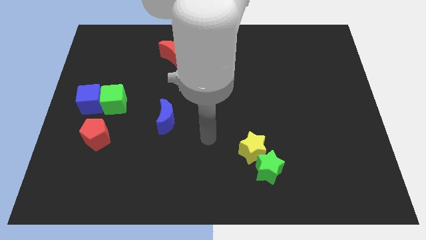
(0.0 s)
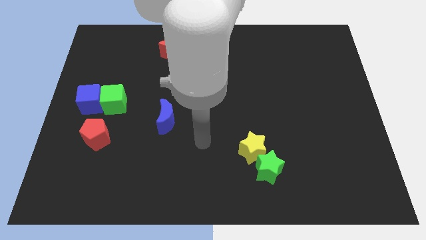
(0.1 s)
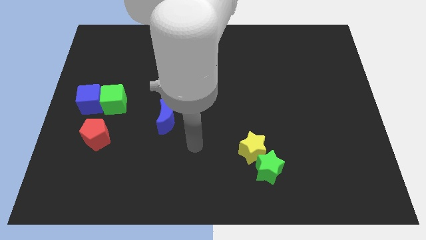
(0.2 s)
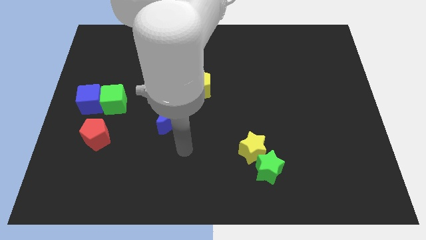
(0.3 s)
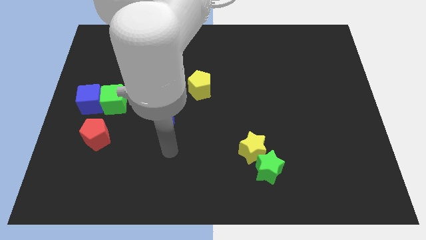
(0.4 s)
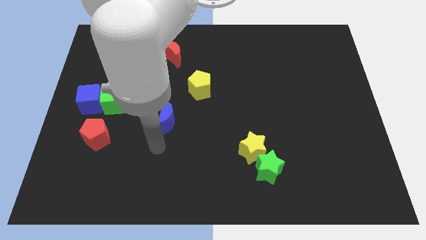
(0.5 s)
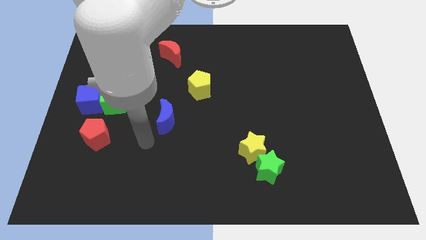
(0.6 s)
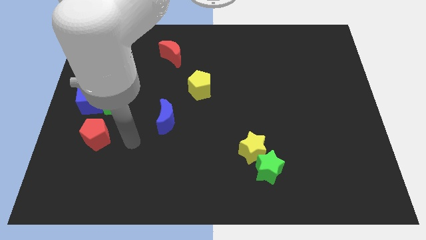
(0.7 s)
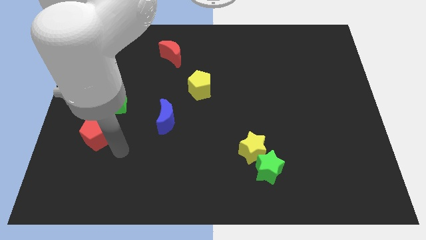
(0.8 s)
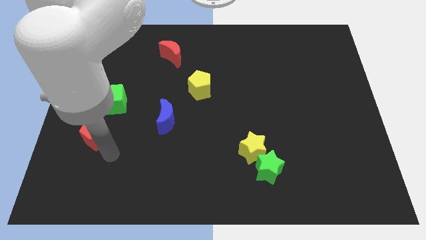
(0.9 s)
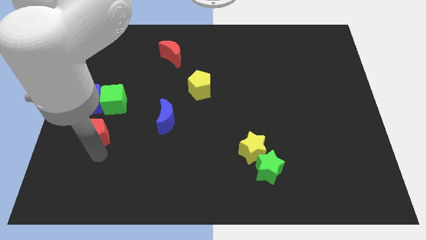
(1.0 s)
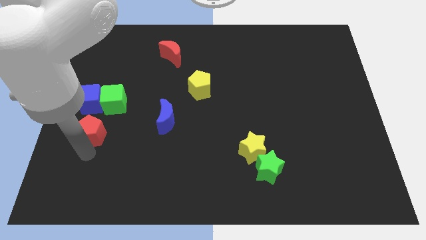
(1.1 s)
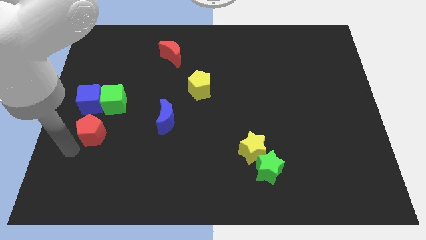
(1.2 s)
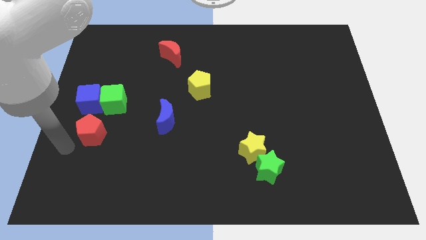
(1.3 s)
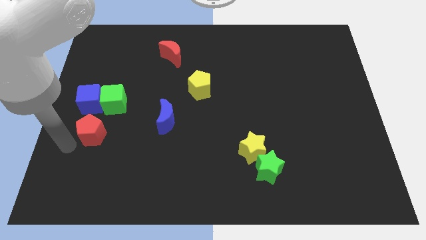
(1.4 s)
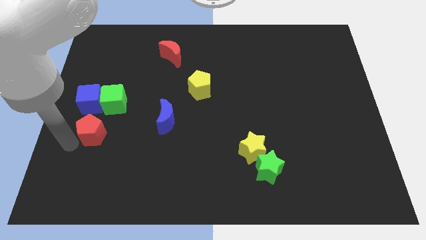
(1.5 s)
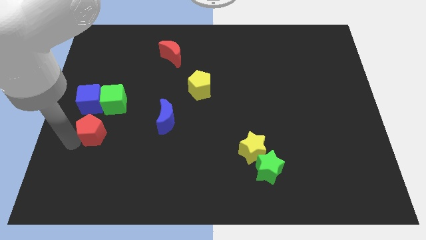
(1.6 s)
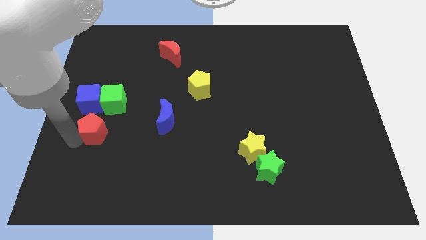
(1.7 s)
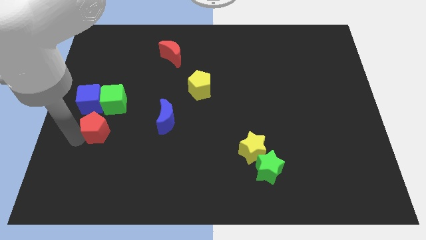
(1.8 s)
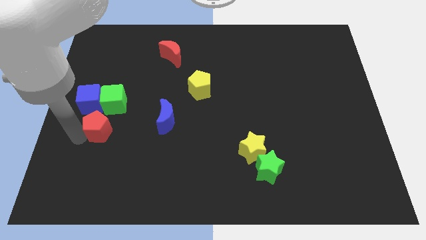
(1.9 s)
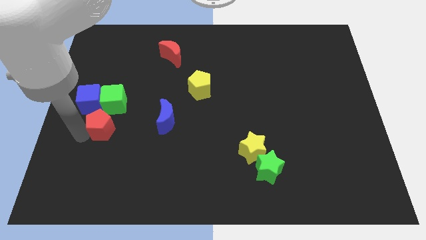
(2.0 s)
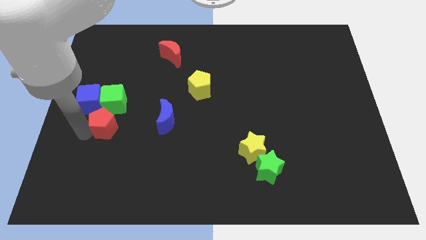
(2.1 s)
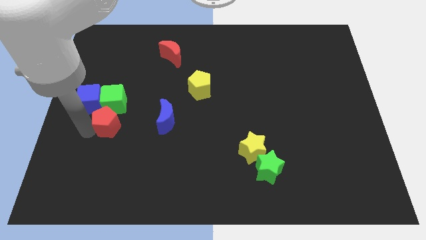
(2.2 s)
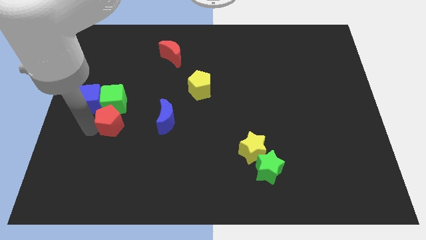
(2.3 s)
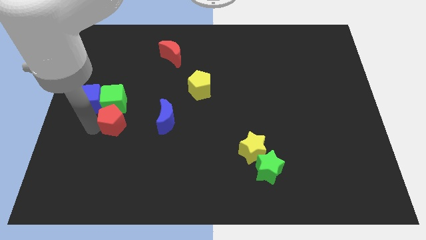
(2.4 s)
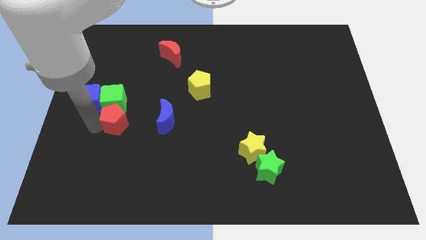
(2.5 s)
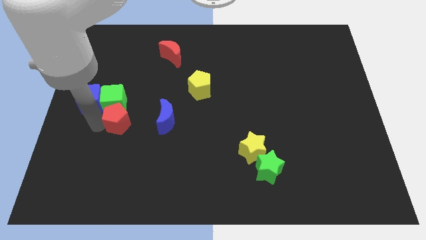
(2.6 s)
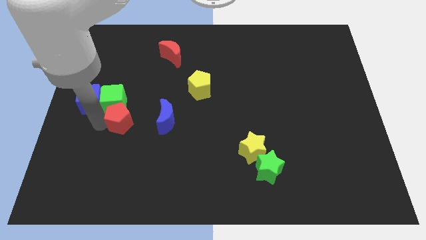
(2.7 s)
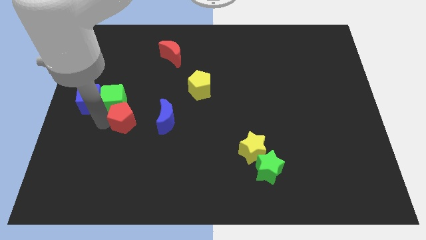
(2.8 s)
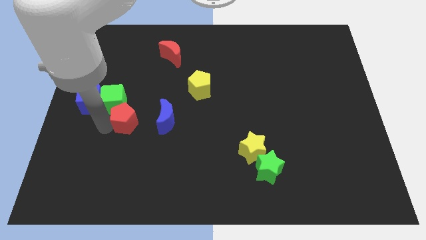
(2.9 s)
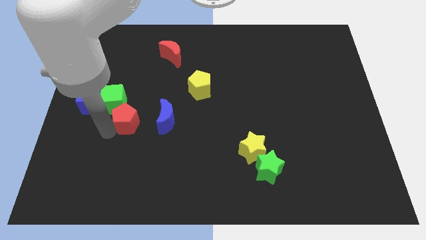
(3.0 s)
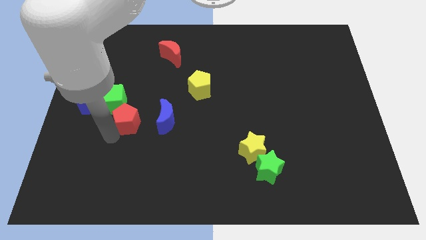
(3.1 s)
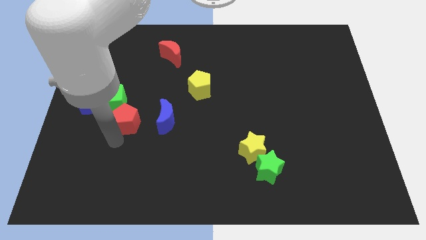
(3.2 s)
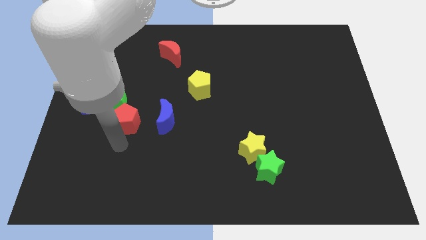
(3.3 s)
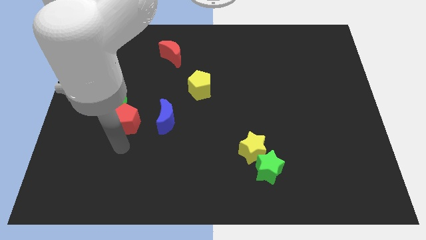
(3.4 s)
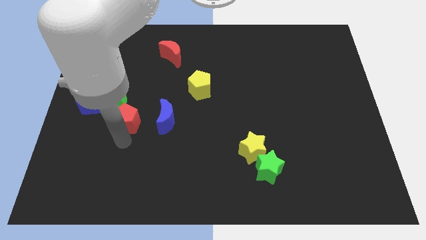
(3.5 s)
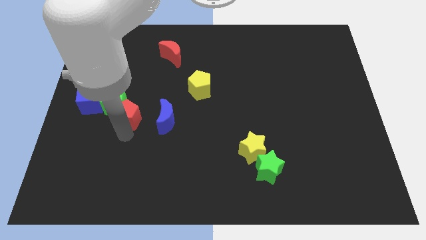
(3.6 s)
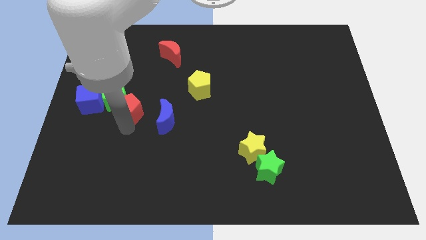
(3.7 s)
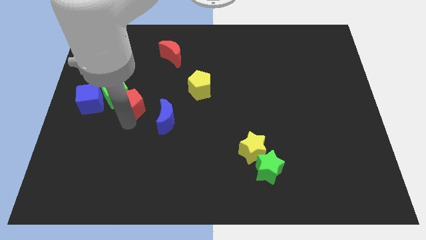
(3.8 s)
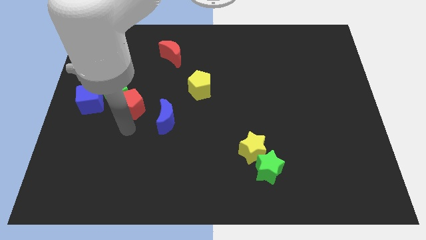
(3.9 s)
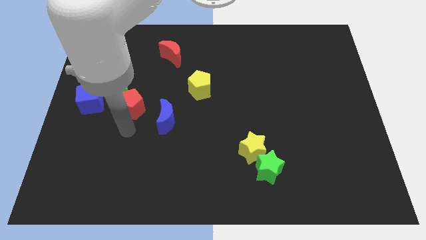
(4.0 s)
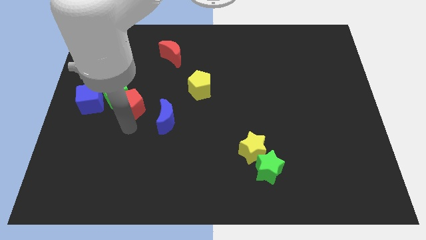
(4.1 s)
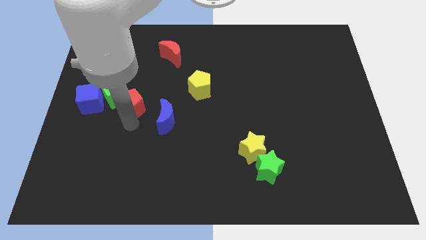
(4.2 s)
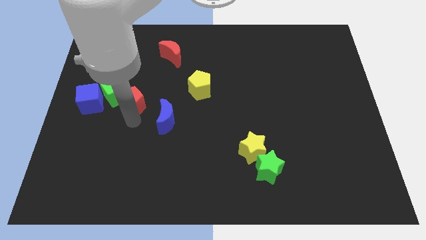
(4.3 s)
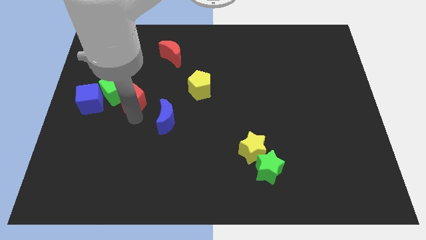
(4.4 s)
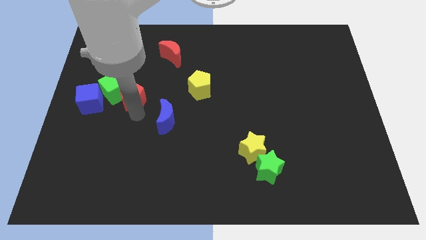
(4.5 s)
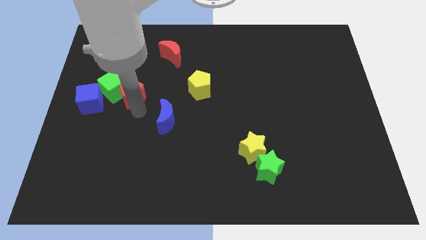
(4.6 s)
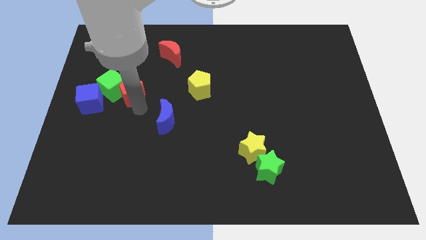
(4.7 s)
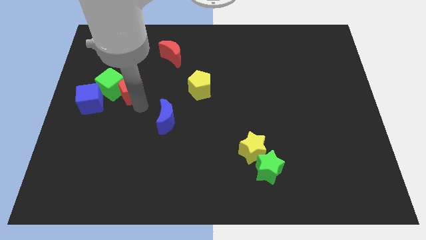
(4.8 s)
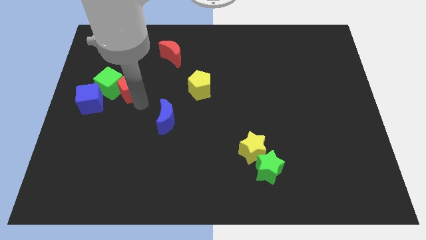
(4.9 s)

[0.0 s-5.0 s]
push the red pentagon to the top right of the green cube

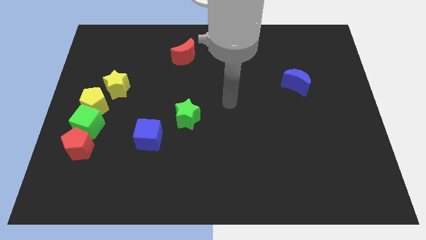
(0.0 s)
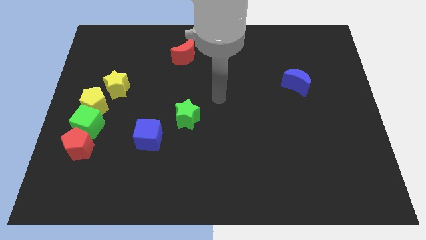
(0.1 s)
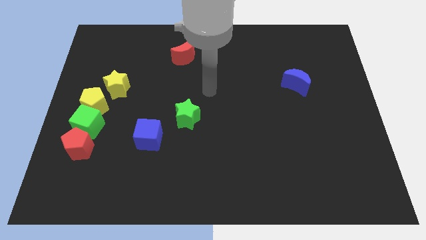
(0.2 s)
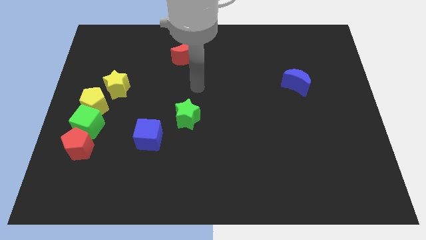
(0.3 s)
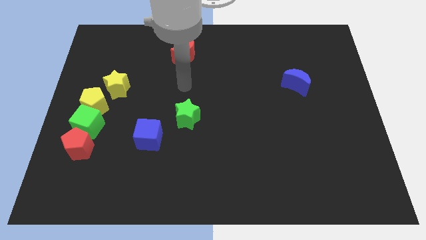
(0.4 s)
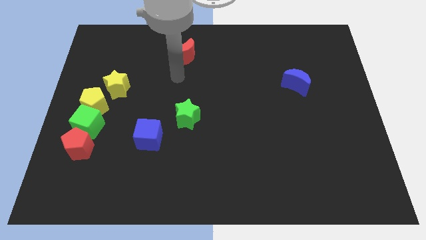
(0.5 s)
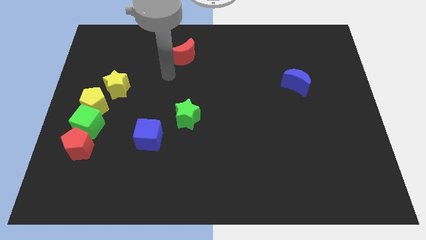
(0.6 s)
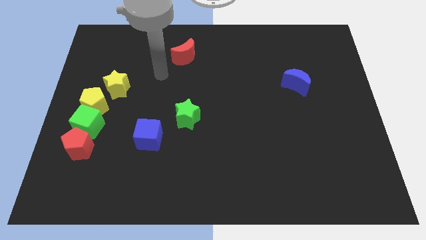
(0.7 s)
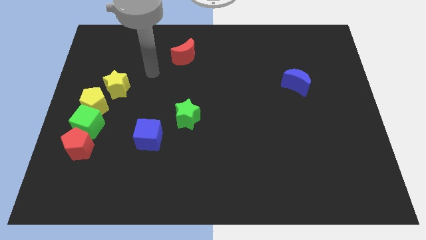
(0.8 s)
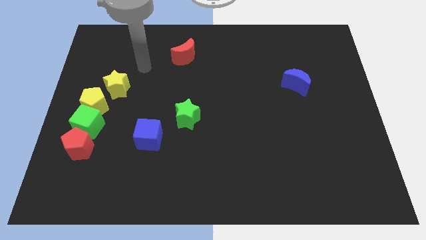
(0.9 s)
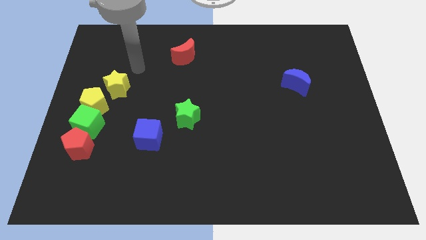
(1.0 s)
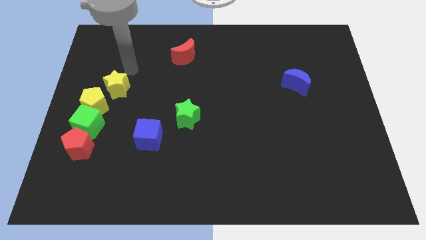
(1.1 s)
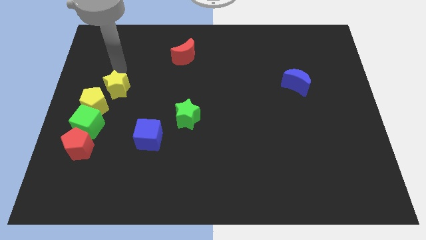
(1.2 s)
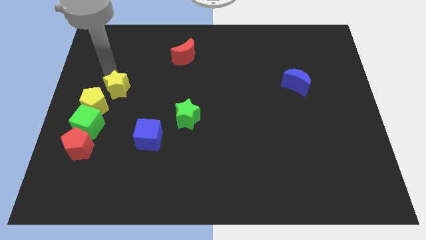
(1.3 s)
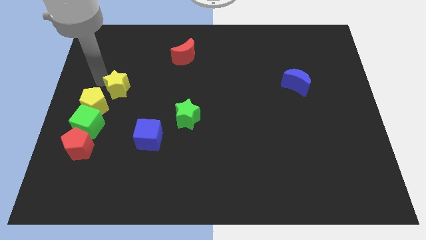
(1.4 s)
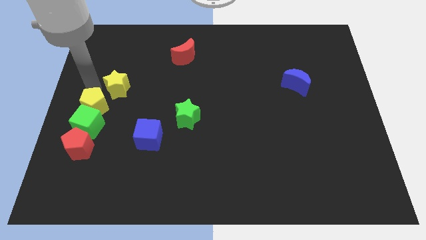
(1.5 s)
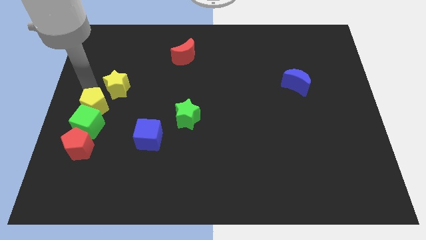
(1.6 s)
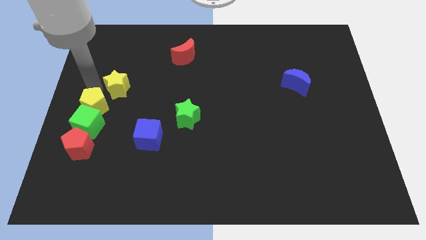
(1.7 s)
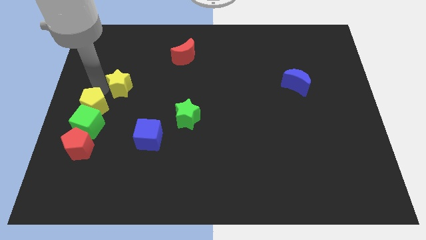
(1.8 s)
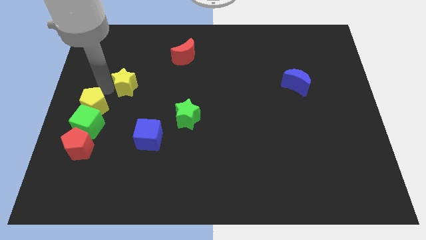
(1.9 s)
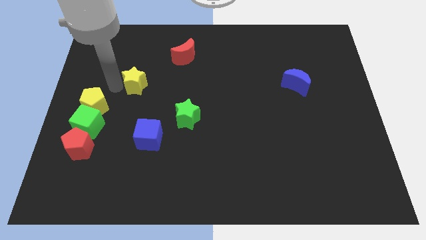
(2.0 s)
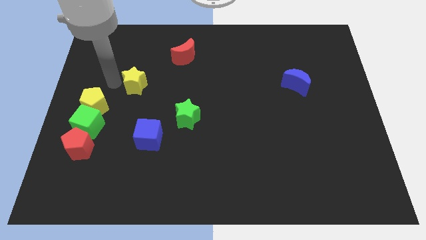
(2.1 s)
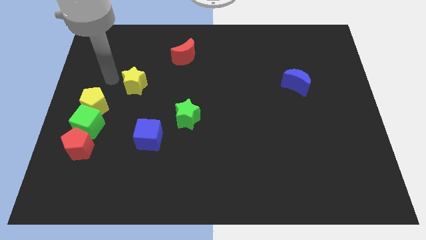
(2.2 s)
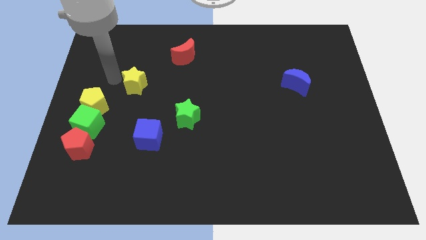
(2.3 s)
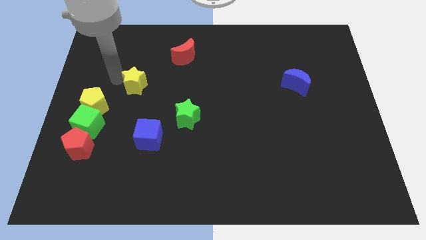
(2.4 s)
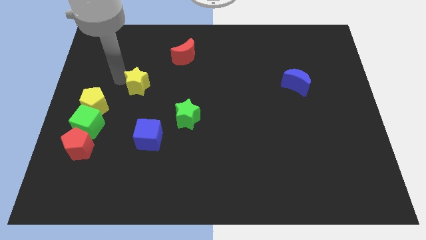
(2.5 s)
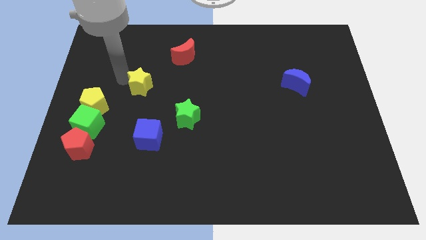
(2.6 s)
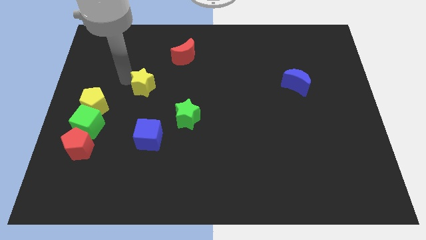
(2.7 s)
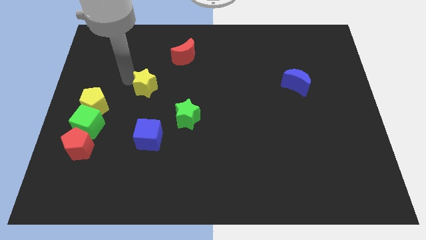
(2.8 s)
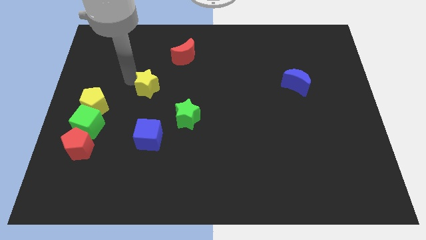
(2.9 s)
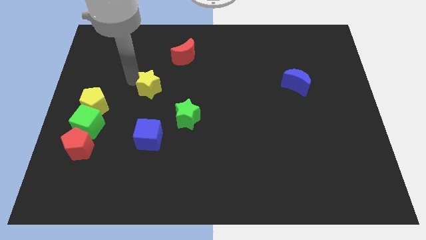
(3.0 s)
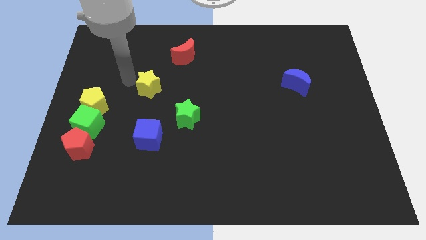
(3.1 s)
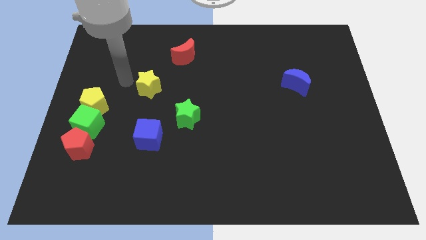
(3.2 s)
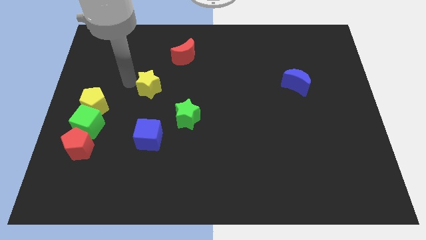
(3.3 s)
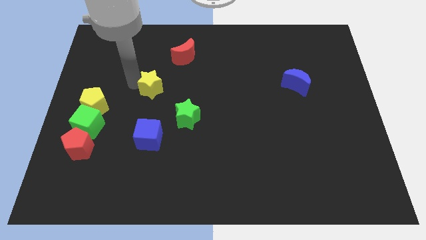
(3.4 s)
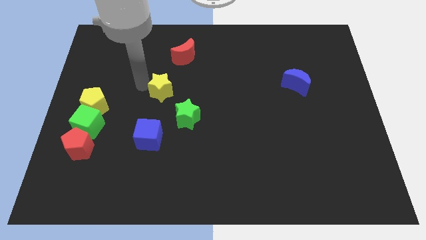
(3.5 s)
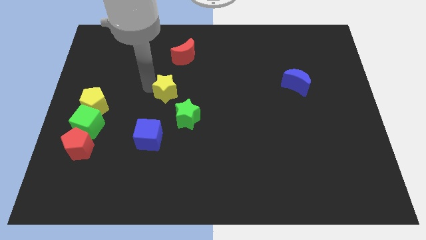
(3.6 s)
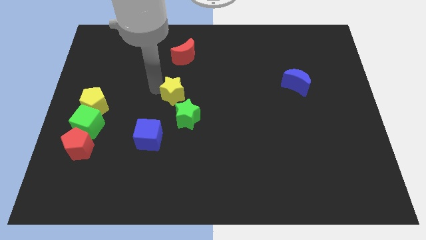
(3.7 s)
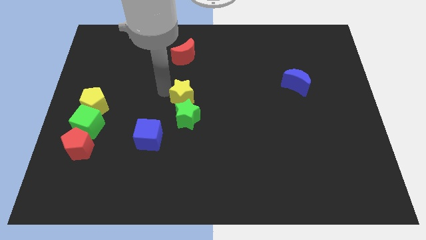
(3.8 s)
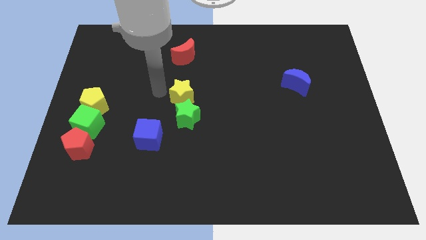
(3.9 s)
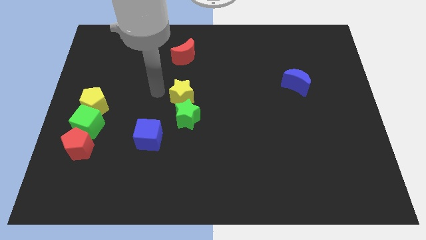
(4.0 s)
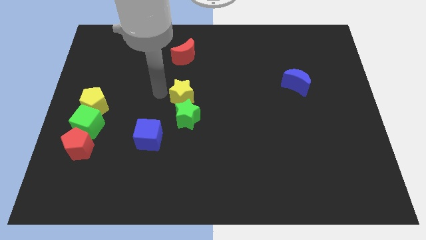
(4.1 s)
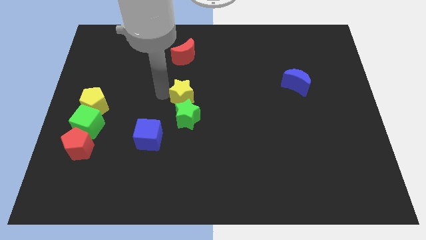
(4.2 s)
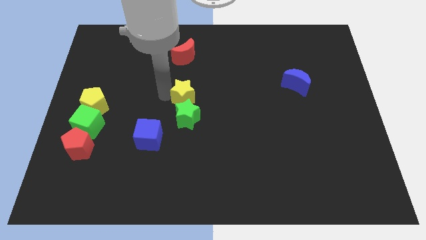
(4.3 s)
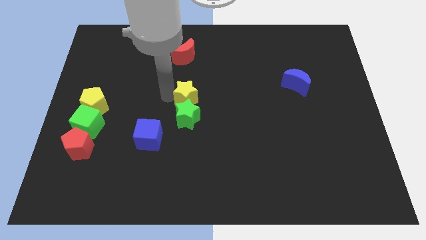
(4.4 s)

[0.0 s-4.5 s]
move the yellow star to the top right of the green star
